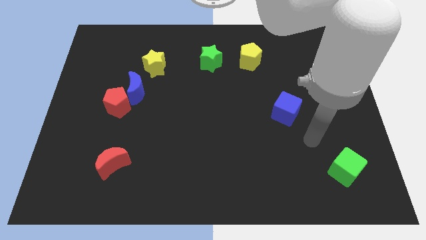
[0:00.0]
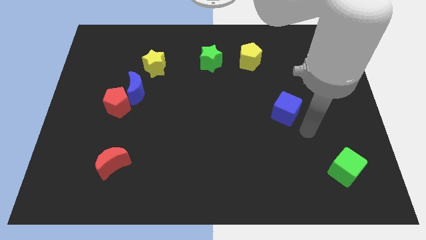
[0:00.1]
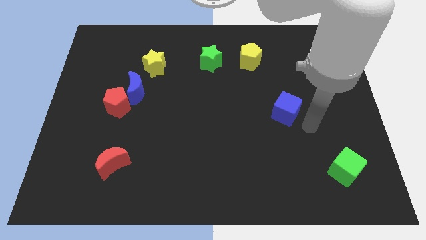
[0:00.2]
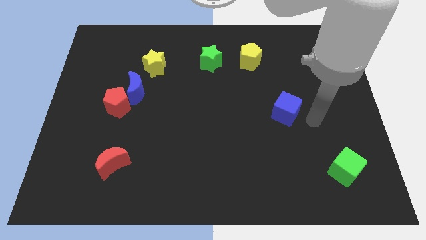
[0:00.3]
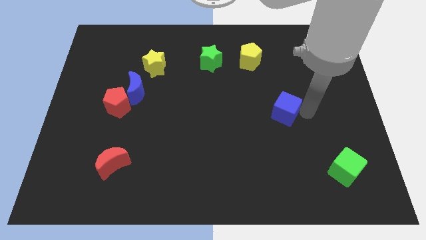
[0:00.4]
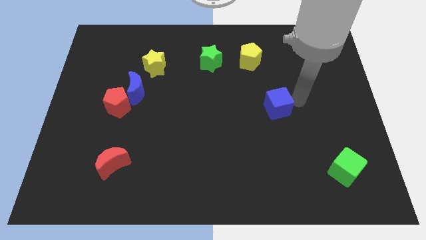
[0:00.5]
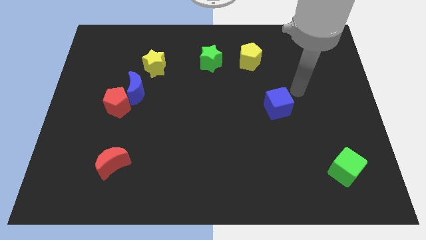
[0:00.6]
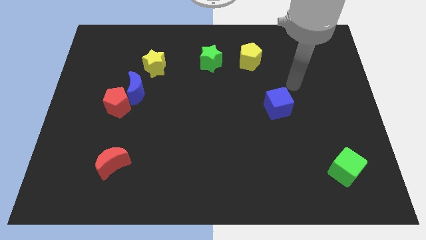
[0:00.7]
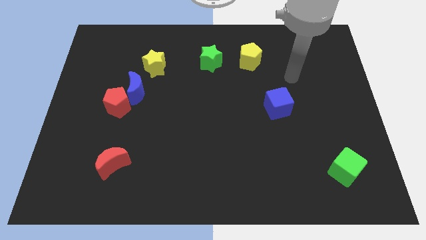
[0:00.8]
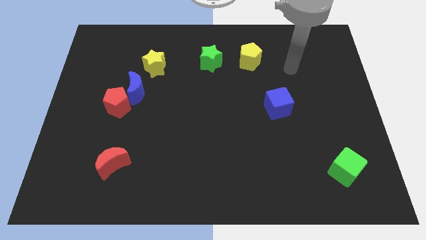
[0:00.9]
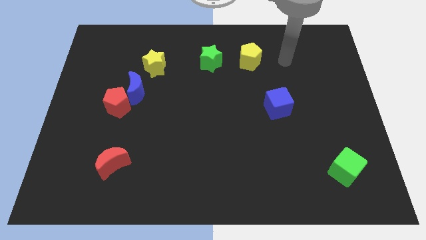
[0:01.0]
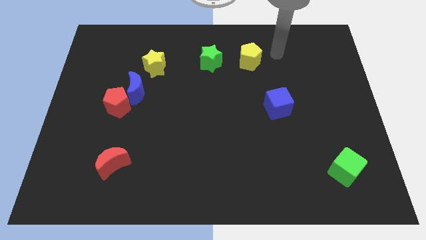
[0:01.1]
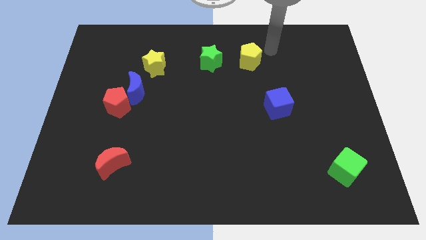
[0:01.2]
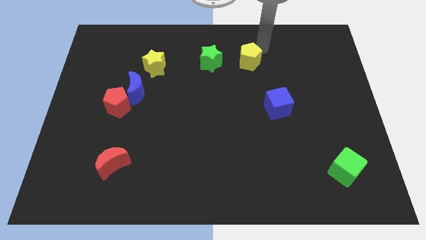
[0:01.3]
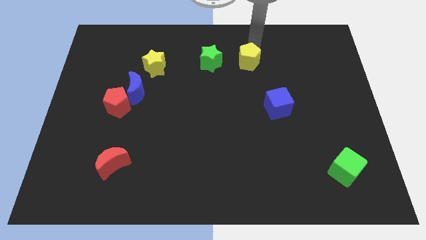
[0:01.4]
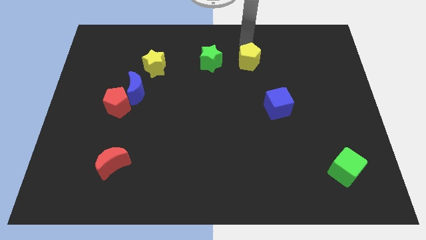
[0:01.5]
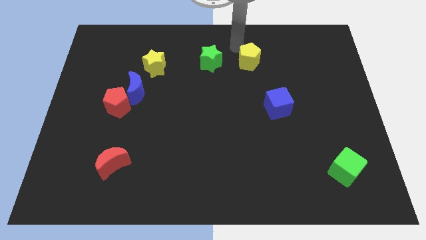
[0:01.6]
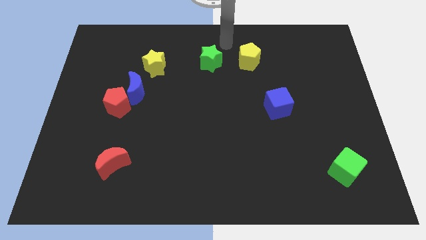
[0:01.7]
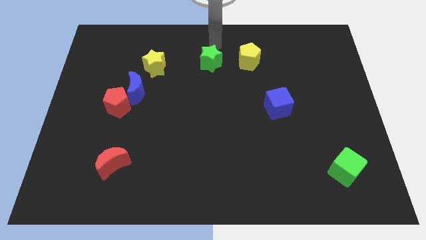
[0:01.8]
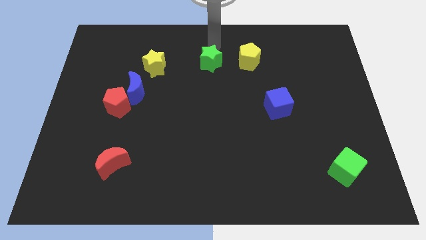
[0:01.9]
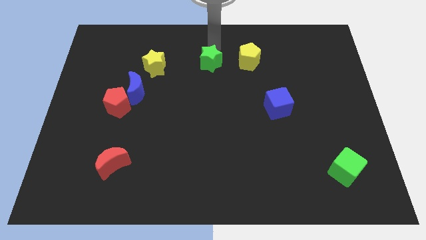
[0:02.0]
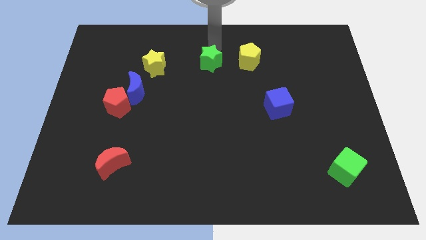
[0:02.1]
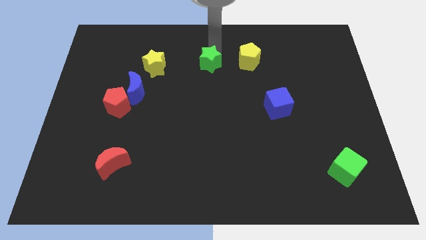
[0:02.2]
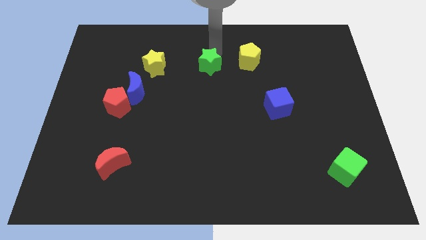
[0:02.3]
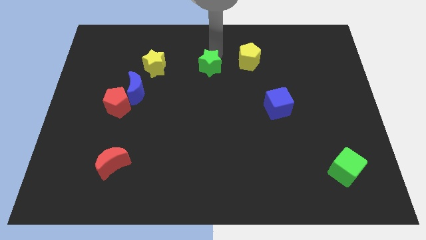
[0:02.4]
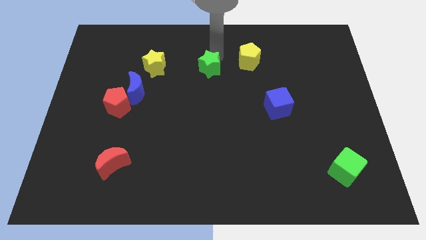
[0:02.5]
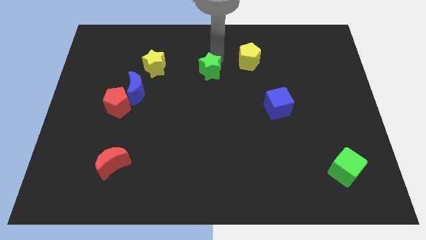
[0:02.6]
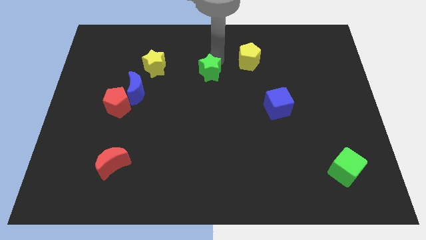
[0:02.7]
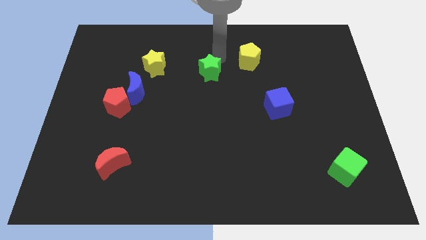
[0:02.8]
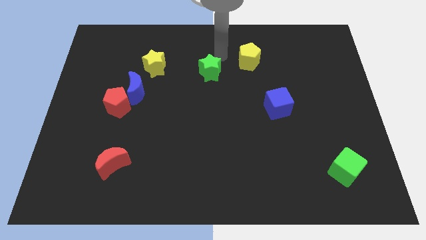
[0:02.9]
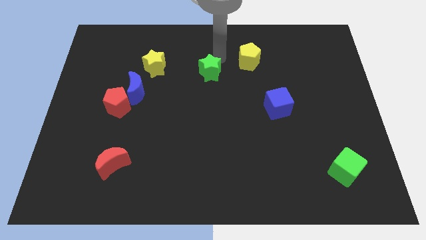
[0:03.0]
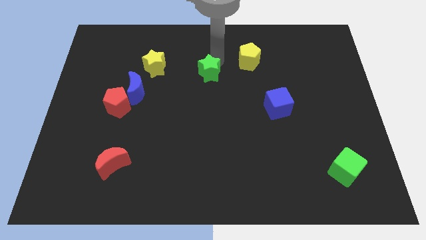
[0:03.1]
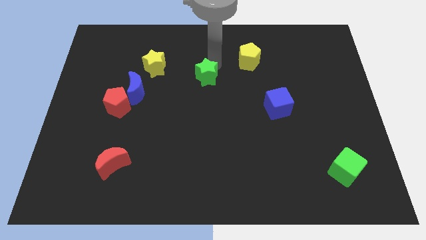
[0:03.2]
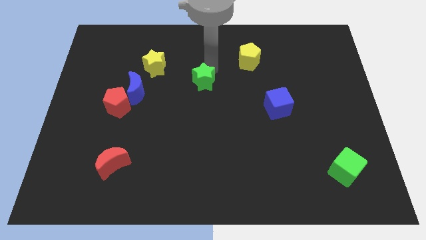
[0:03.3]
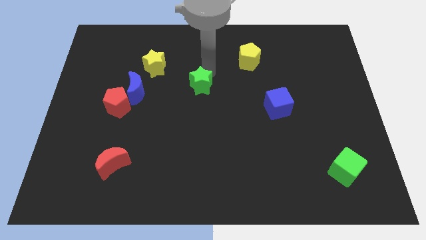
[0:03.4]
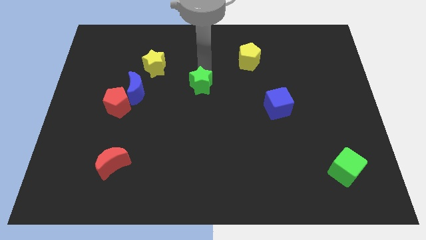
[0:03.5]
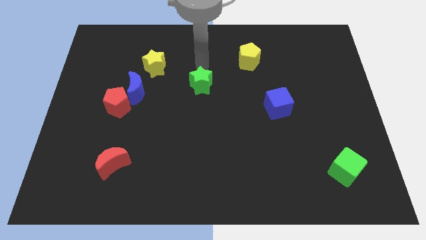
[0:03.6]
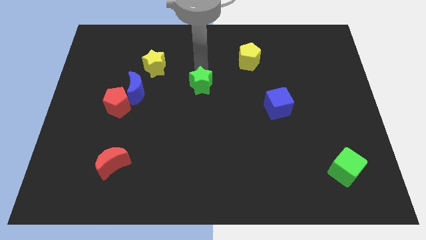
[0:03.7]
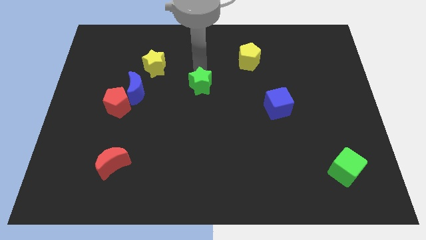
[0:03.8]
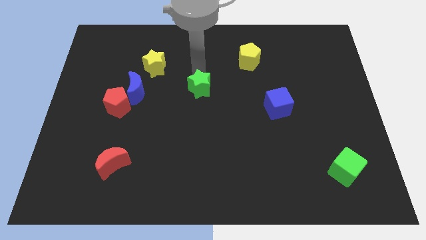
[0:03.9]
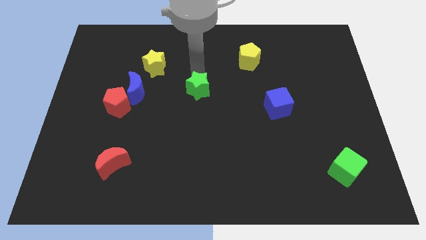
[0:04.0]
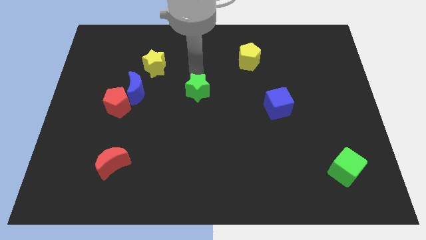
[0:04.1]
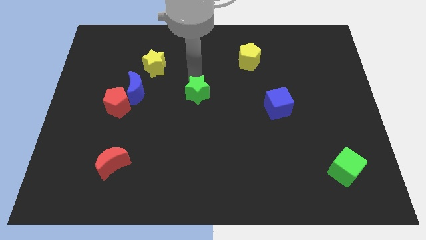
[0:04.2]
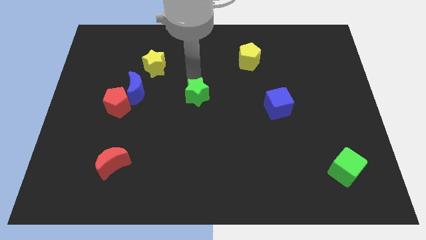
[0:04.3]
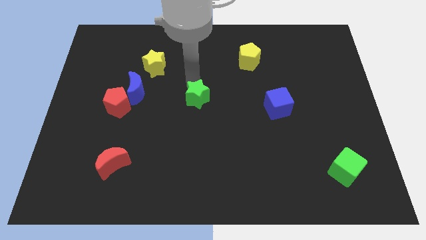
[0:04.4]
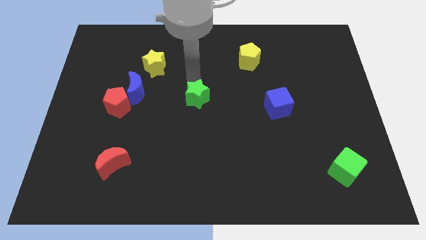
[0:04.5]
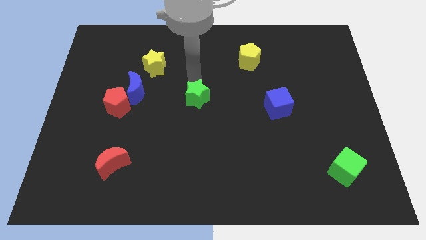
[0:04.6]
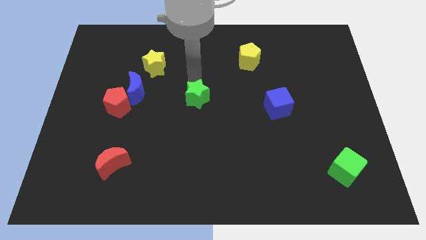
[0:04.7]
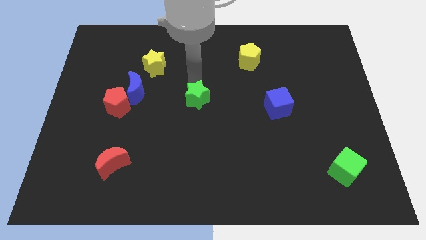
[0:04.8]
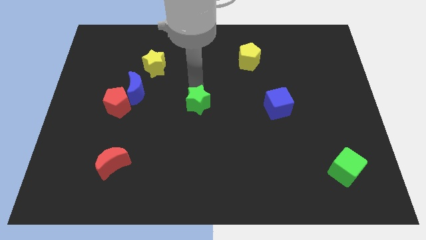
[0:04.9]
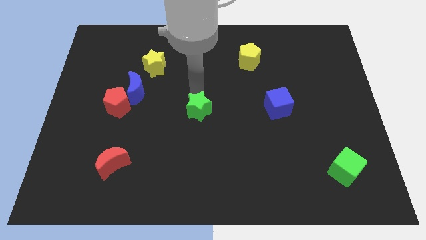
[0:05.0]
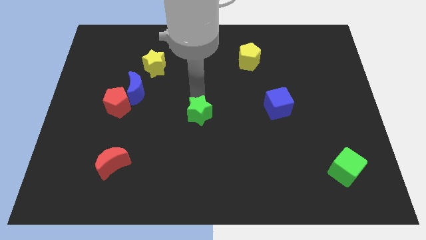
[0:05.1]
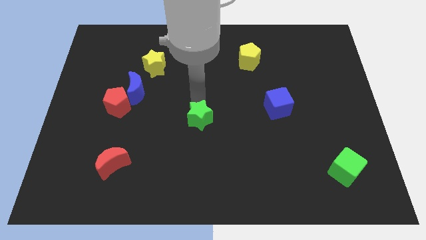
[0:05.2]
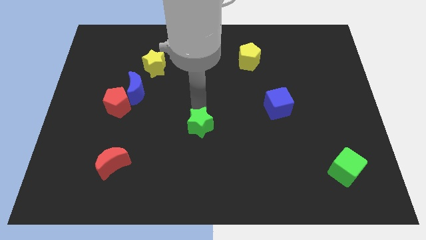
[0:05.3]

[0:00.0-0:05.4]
push the green star down

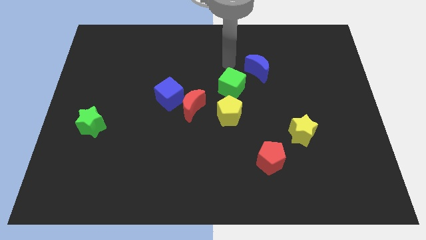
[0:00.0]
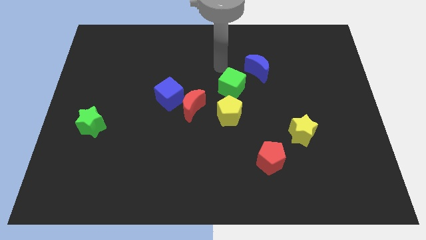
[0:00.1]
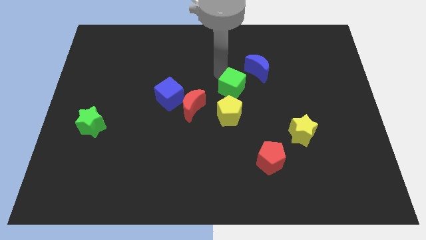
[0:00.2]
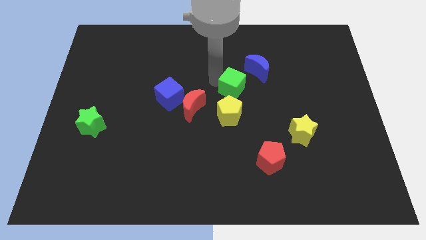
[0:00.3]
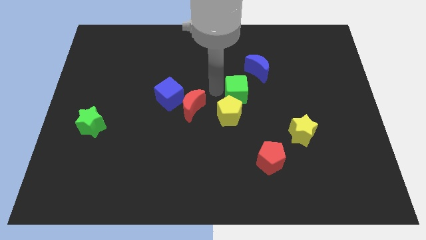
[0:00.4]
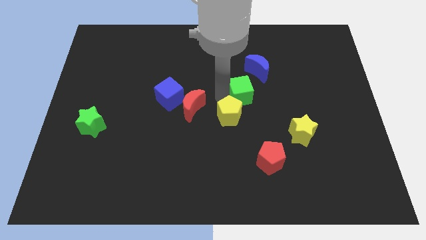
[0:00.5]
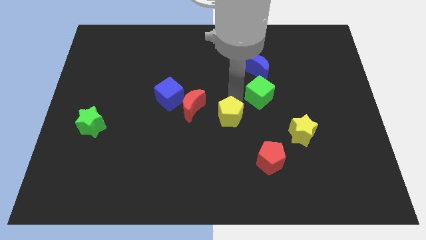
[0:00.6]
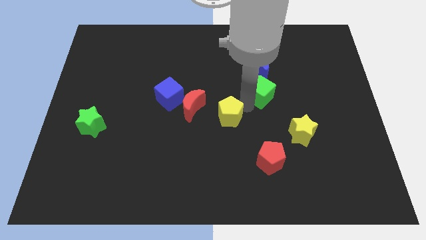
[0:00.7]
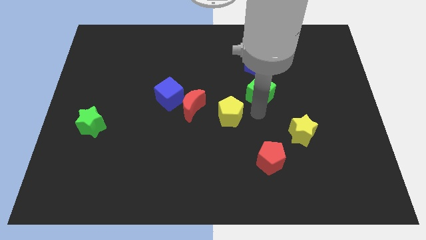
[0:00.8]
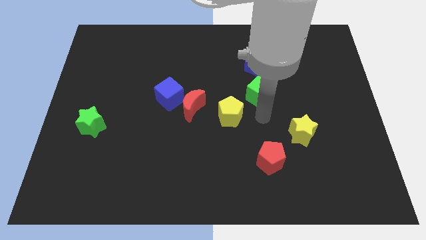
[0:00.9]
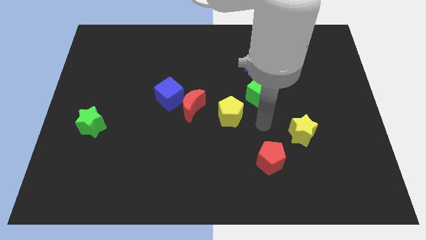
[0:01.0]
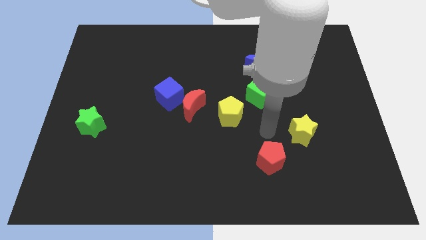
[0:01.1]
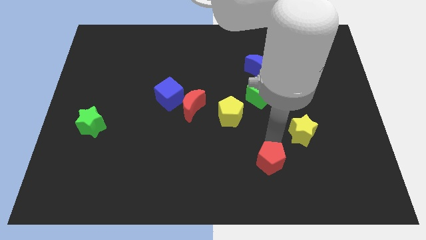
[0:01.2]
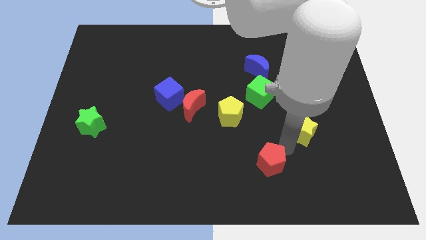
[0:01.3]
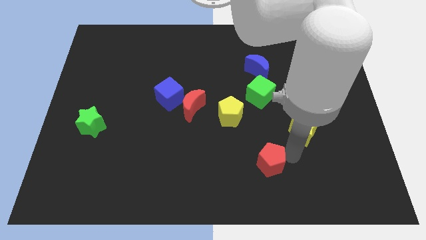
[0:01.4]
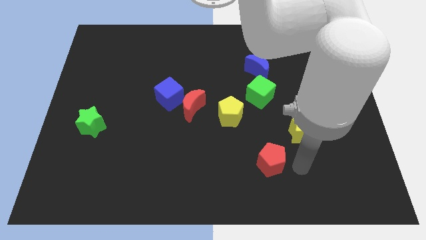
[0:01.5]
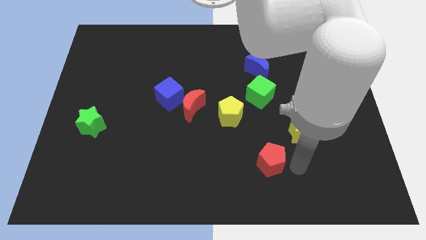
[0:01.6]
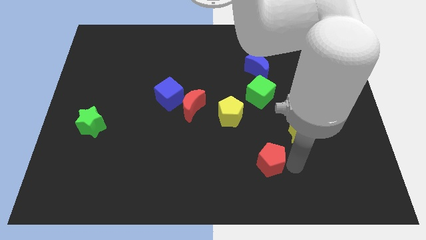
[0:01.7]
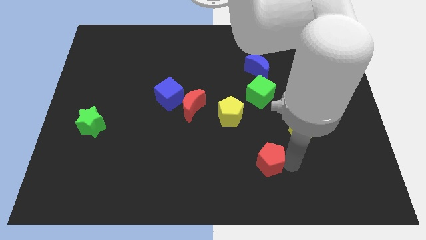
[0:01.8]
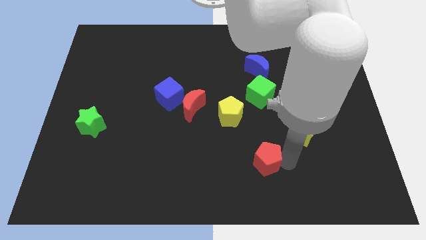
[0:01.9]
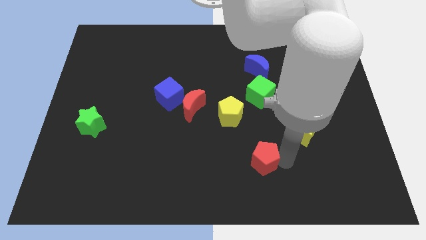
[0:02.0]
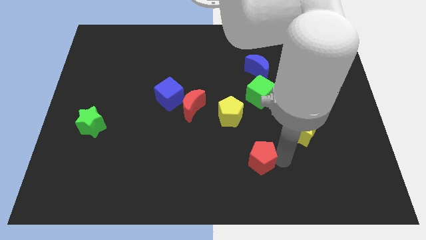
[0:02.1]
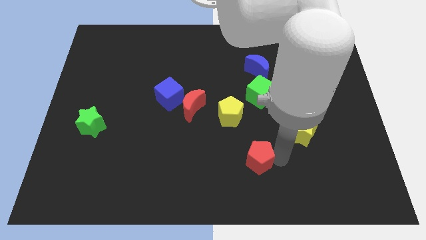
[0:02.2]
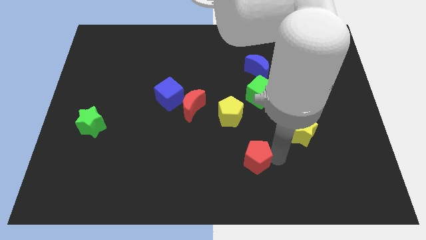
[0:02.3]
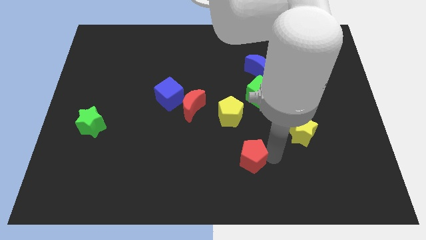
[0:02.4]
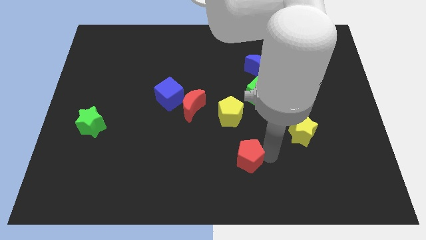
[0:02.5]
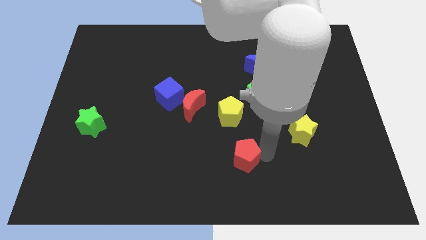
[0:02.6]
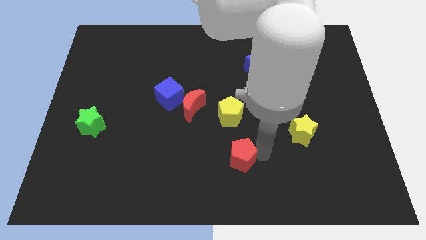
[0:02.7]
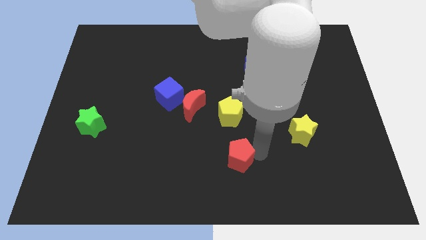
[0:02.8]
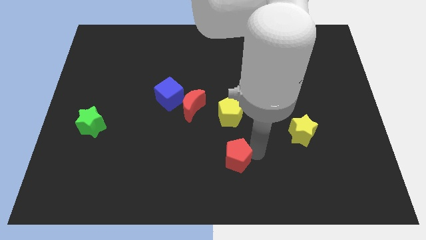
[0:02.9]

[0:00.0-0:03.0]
move the red pentagon somewhat to the left
